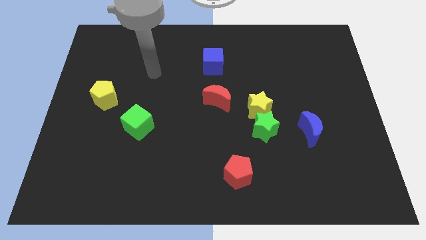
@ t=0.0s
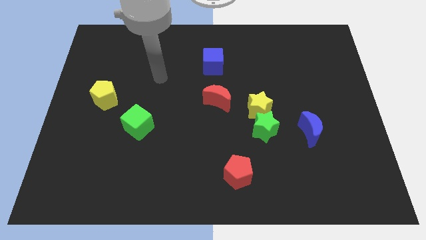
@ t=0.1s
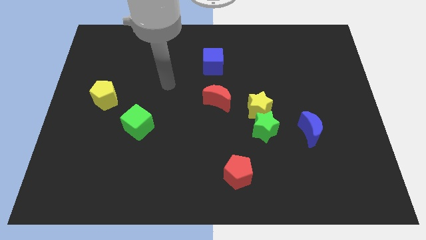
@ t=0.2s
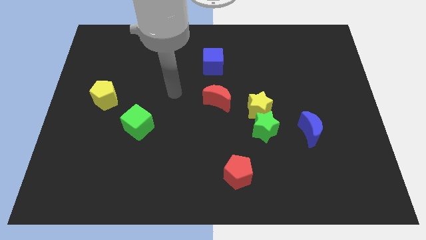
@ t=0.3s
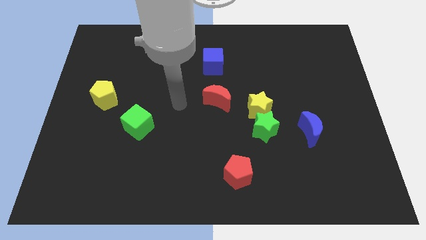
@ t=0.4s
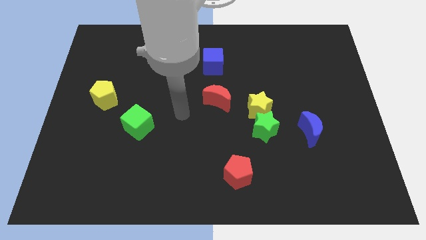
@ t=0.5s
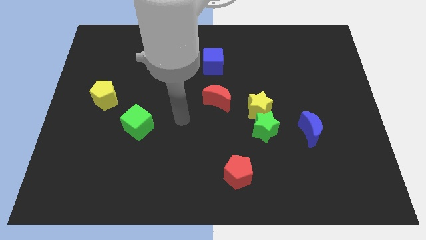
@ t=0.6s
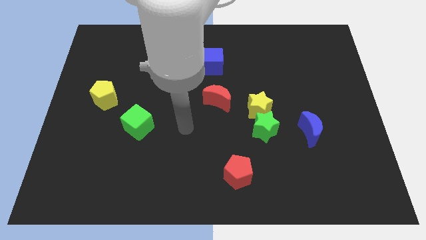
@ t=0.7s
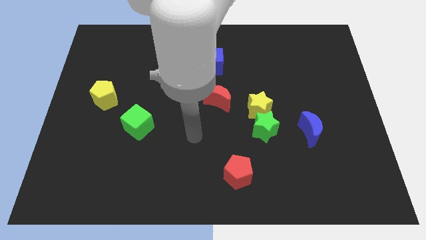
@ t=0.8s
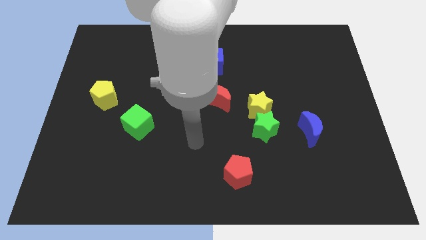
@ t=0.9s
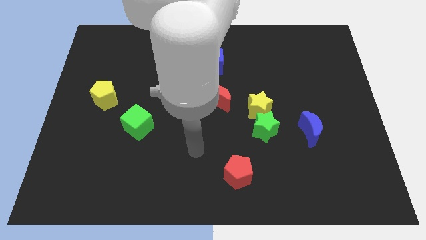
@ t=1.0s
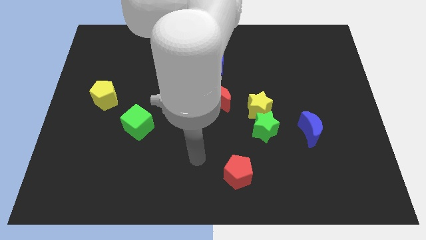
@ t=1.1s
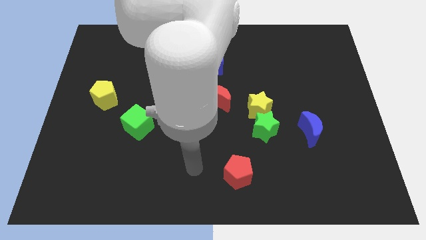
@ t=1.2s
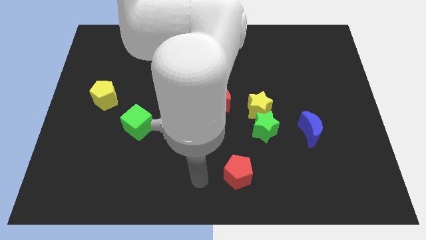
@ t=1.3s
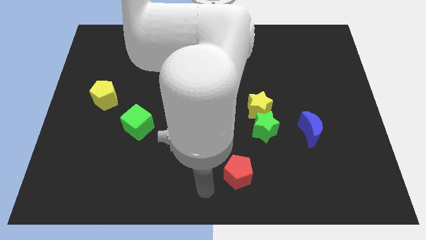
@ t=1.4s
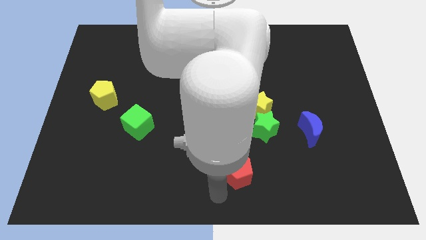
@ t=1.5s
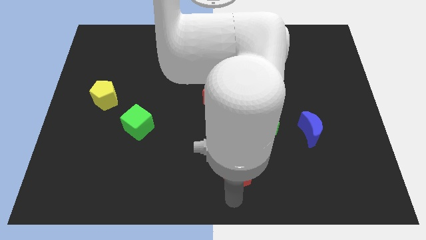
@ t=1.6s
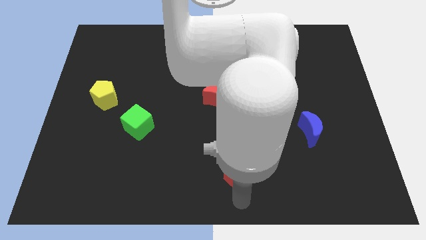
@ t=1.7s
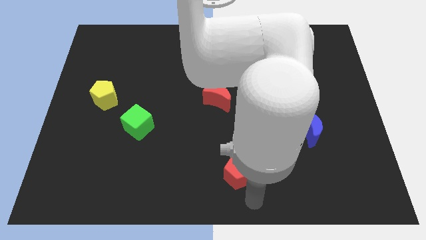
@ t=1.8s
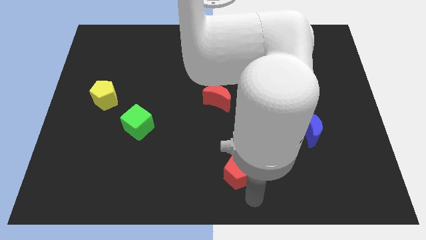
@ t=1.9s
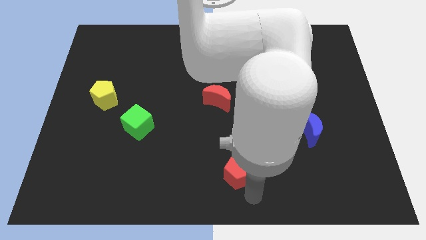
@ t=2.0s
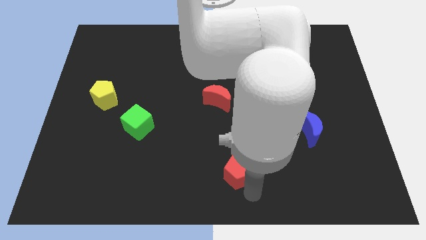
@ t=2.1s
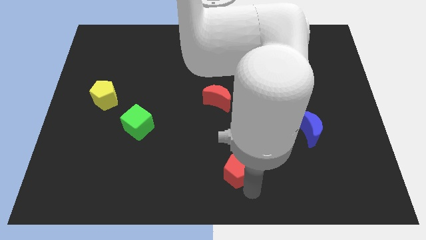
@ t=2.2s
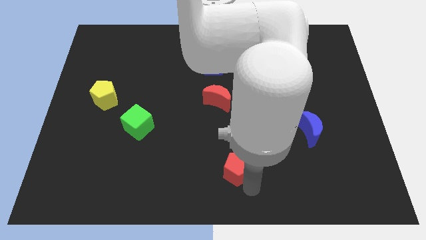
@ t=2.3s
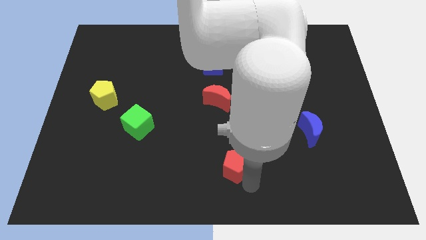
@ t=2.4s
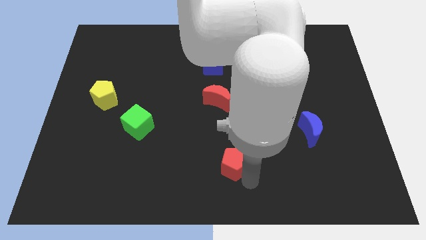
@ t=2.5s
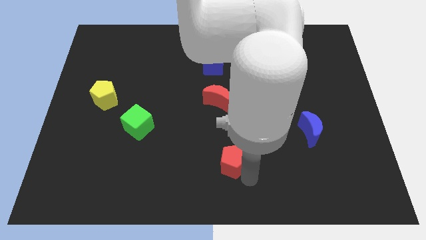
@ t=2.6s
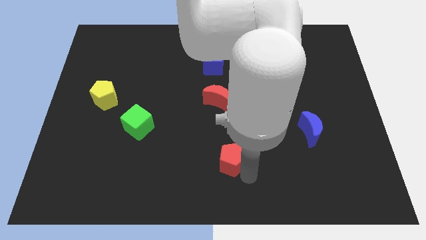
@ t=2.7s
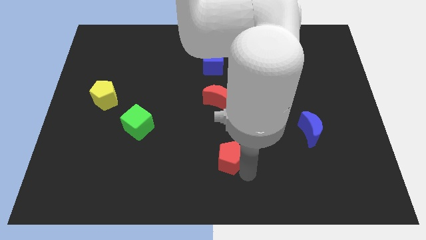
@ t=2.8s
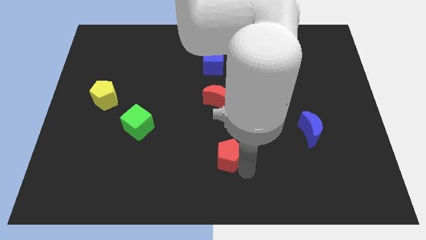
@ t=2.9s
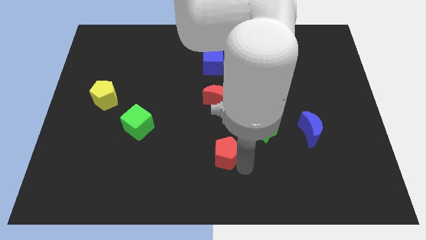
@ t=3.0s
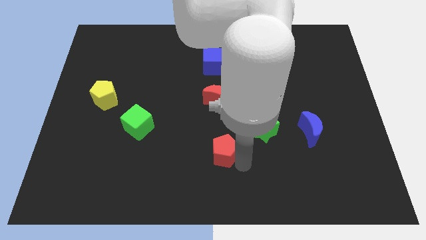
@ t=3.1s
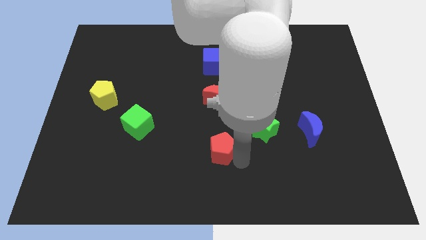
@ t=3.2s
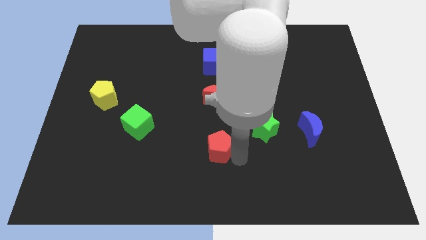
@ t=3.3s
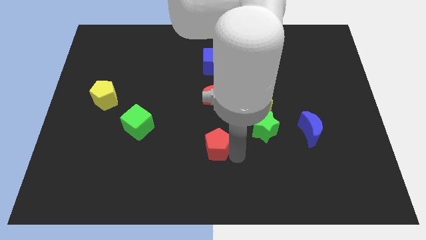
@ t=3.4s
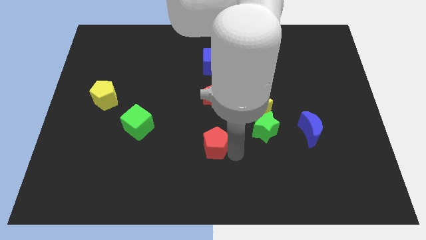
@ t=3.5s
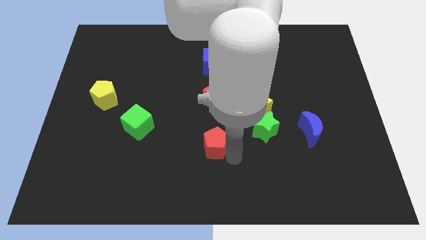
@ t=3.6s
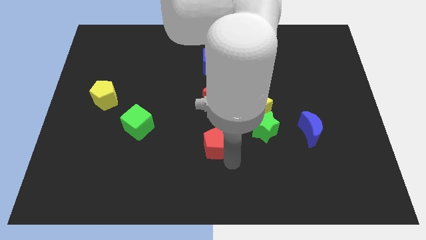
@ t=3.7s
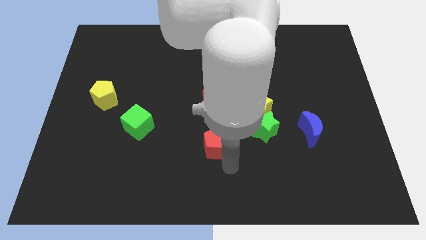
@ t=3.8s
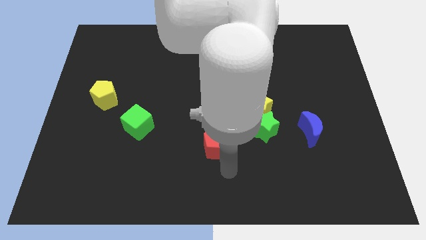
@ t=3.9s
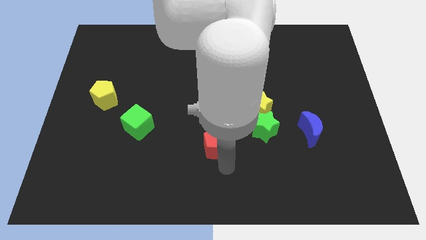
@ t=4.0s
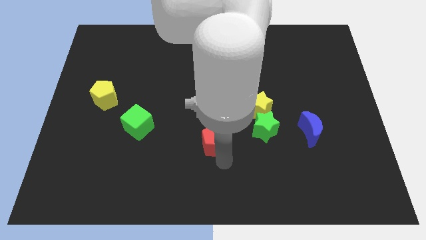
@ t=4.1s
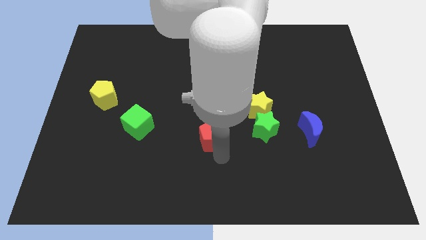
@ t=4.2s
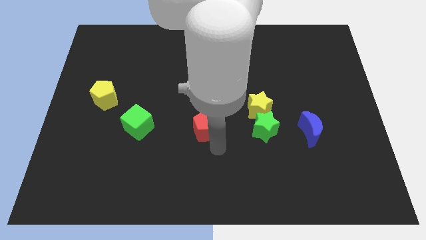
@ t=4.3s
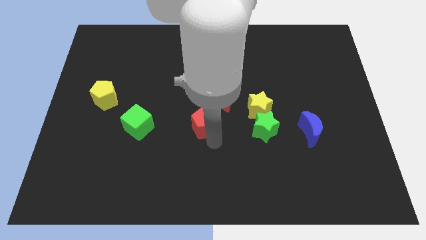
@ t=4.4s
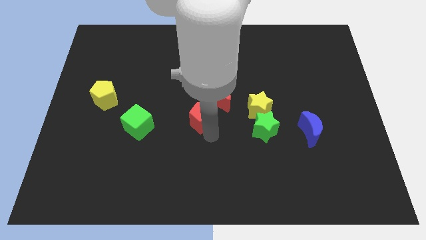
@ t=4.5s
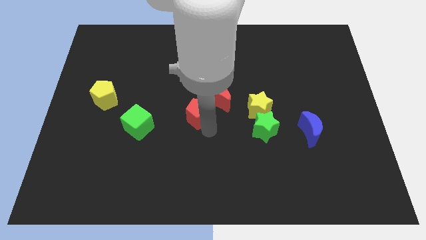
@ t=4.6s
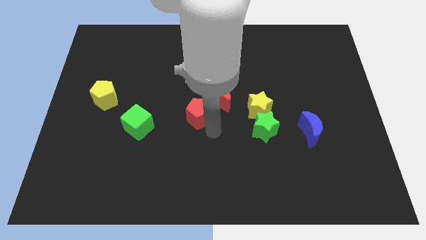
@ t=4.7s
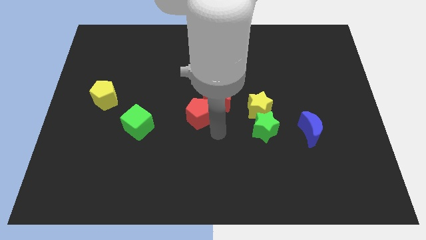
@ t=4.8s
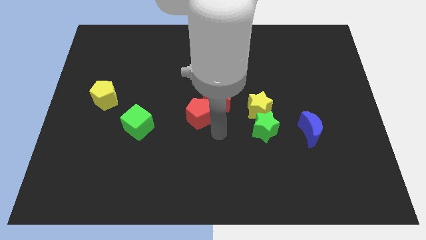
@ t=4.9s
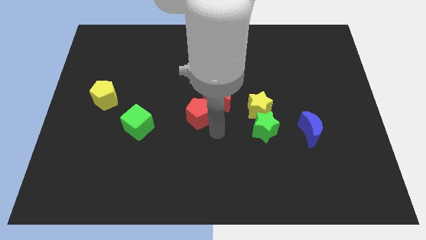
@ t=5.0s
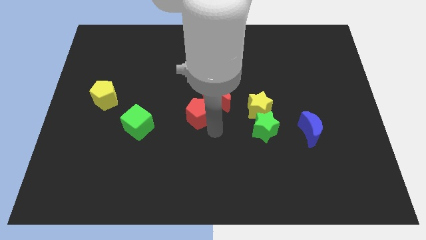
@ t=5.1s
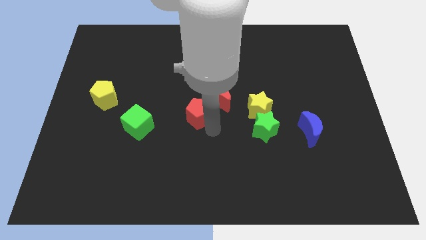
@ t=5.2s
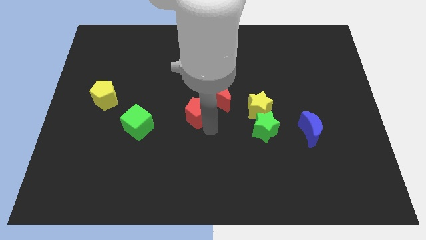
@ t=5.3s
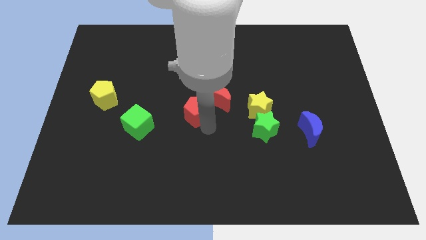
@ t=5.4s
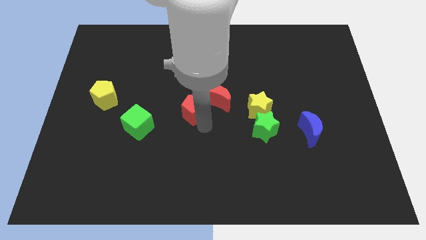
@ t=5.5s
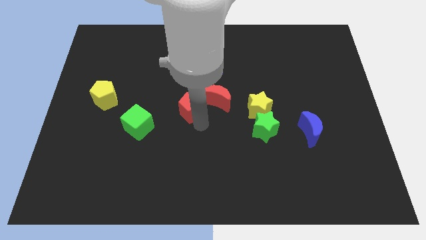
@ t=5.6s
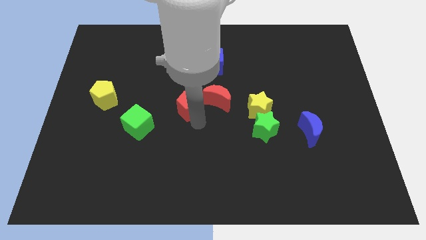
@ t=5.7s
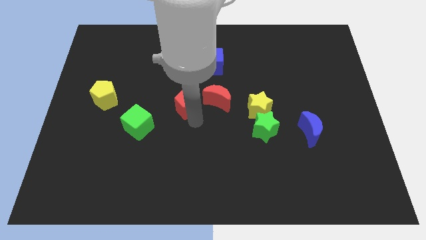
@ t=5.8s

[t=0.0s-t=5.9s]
slide the red pentagon up and to the left

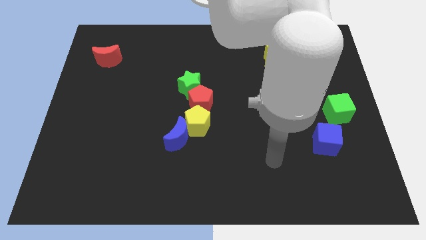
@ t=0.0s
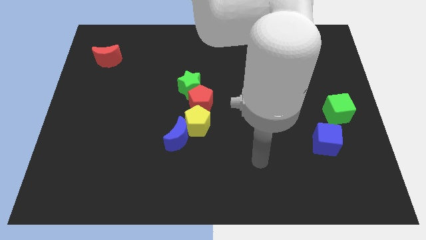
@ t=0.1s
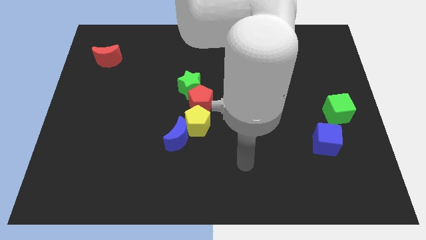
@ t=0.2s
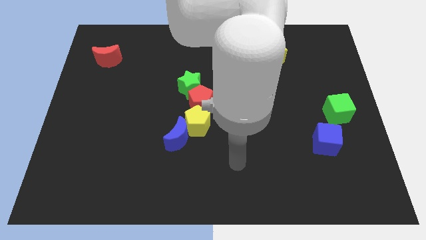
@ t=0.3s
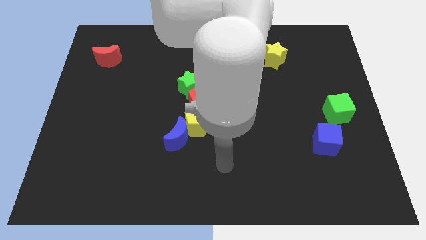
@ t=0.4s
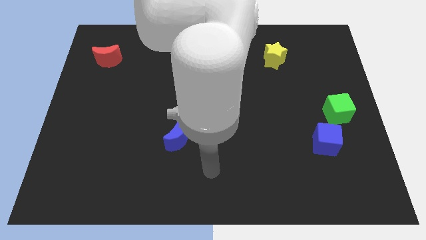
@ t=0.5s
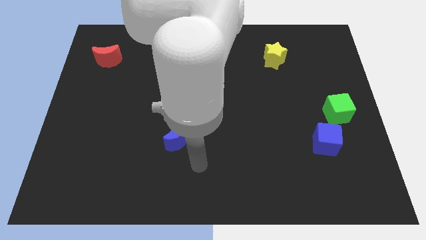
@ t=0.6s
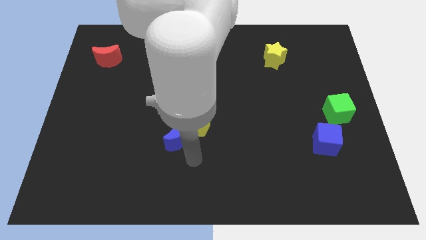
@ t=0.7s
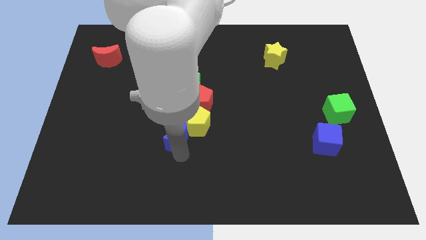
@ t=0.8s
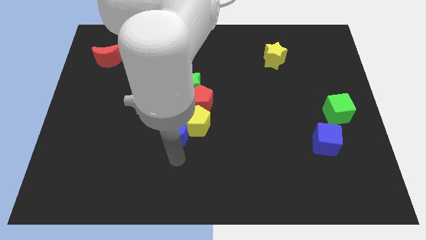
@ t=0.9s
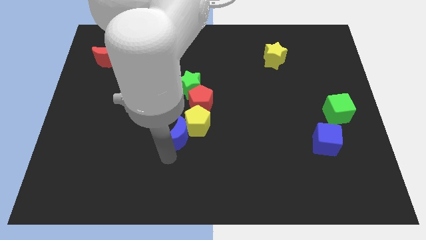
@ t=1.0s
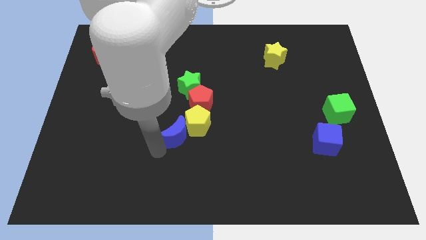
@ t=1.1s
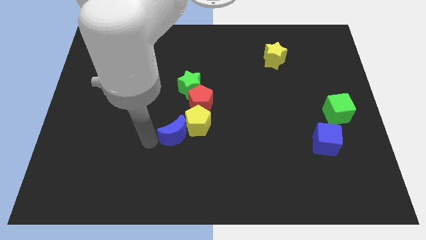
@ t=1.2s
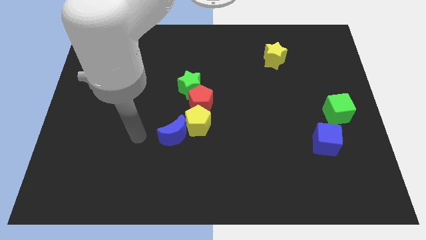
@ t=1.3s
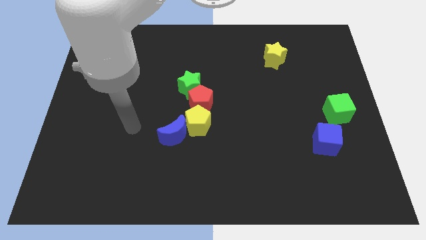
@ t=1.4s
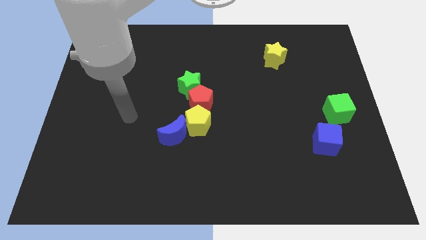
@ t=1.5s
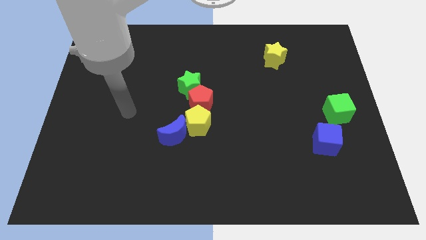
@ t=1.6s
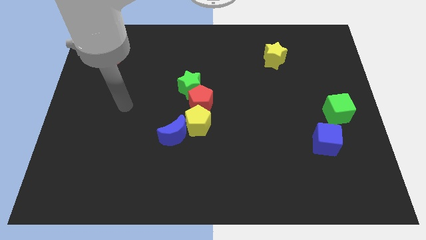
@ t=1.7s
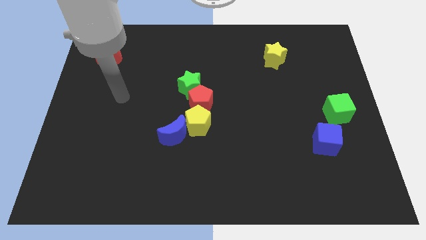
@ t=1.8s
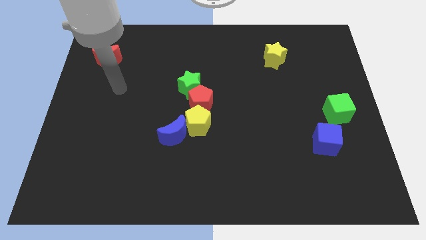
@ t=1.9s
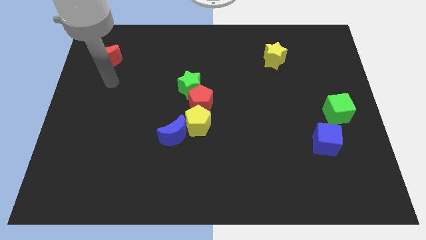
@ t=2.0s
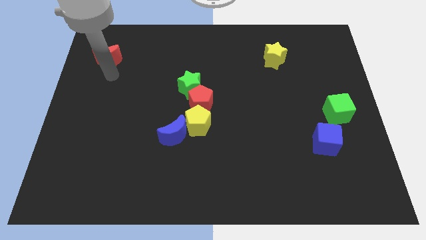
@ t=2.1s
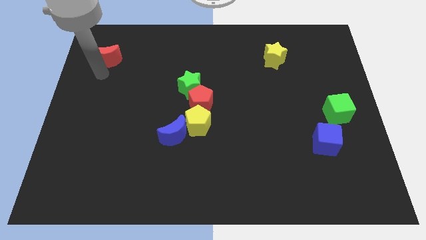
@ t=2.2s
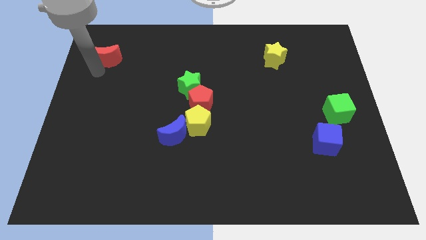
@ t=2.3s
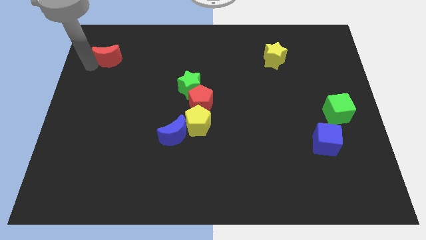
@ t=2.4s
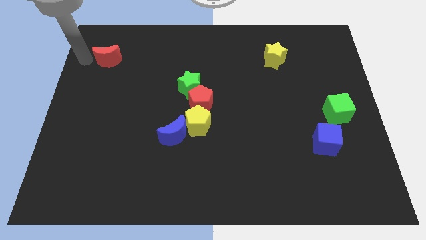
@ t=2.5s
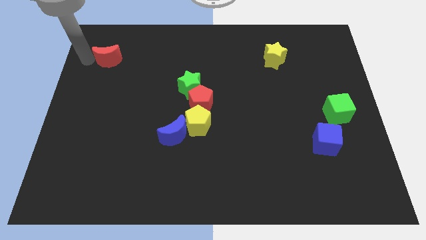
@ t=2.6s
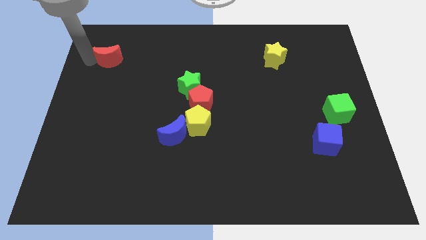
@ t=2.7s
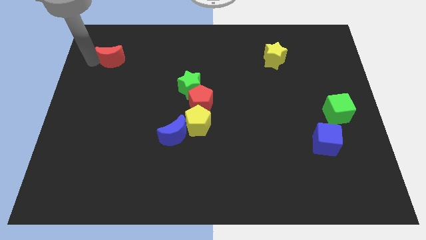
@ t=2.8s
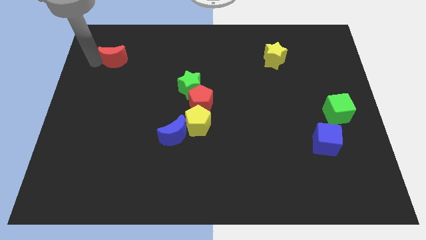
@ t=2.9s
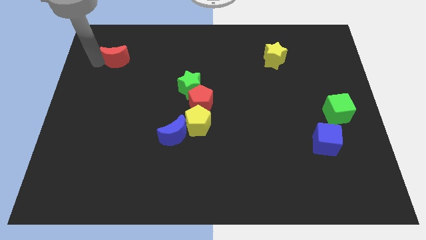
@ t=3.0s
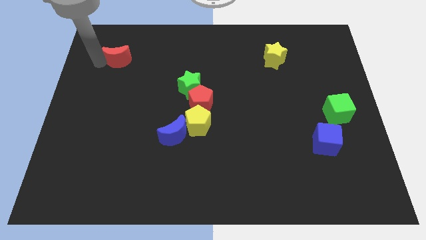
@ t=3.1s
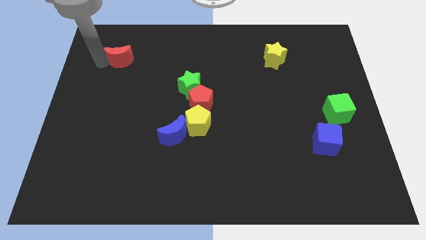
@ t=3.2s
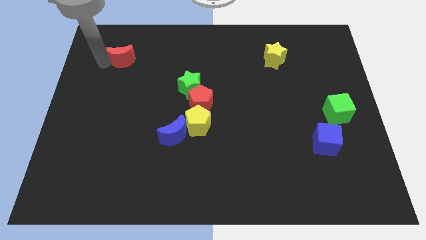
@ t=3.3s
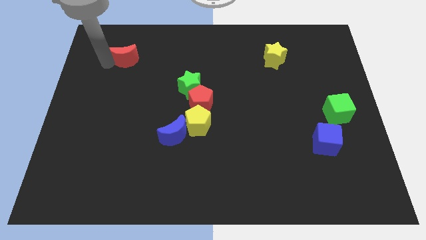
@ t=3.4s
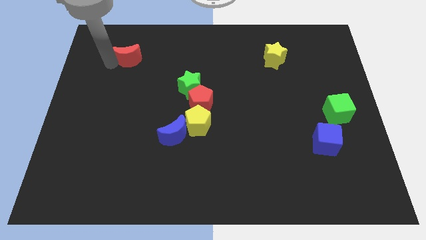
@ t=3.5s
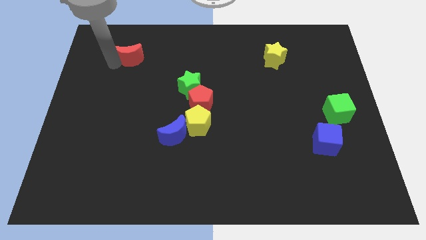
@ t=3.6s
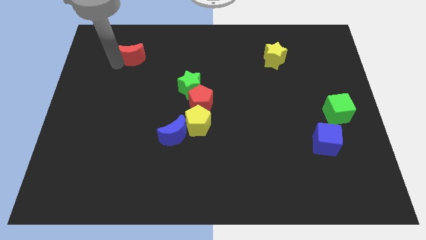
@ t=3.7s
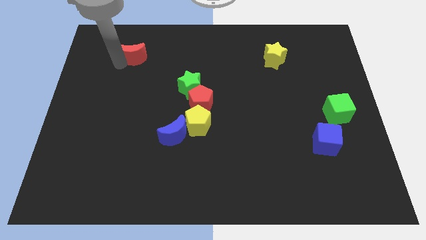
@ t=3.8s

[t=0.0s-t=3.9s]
move the red moon a little right
